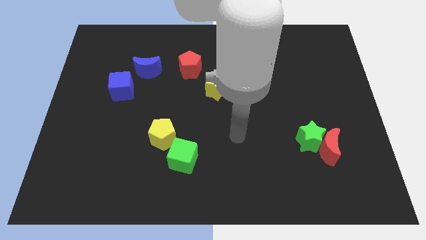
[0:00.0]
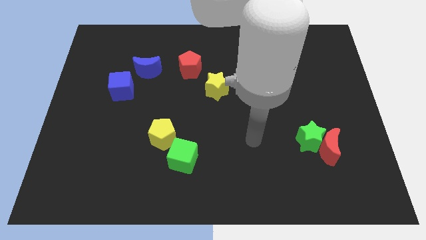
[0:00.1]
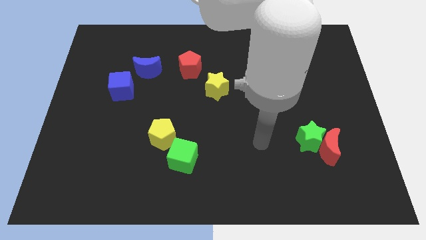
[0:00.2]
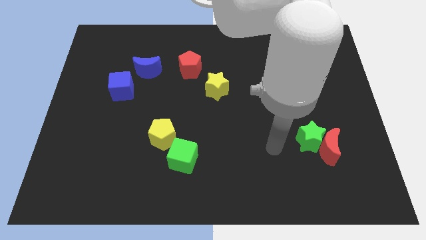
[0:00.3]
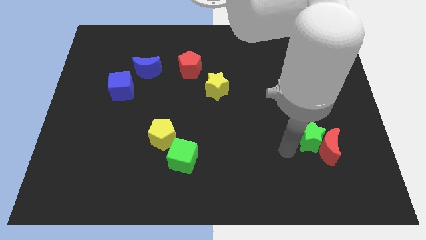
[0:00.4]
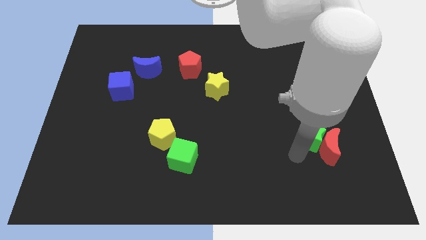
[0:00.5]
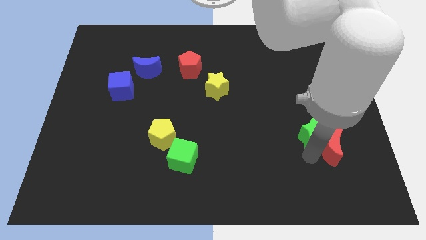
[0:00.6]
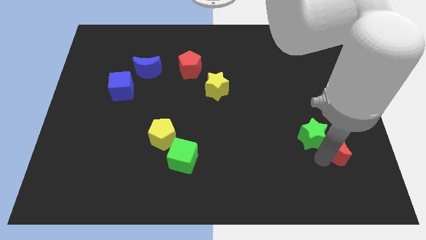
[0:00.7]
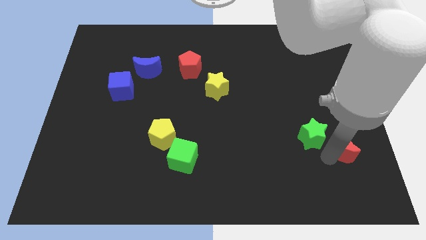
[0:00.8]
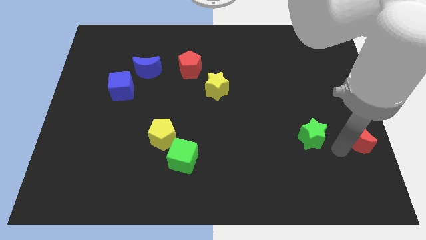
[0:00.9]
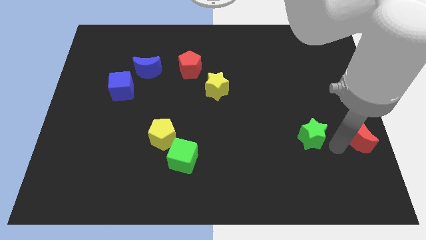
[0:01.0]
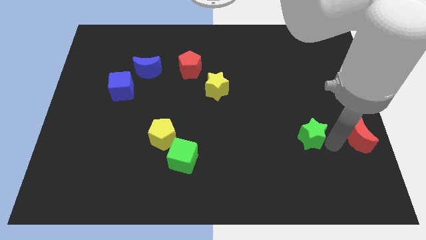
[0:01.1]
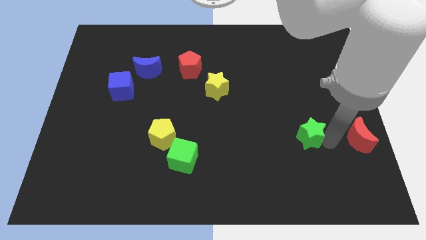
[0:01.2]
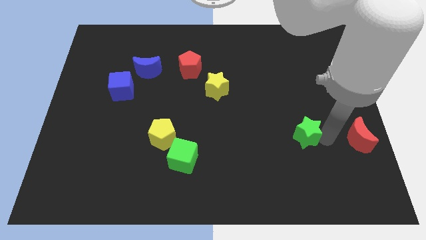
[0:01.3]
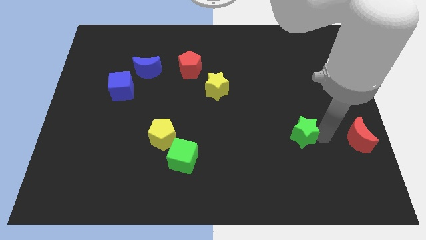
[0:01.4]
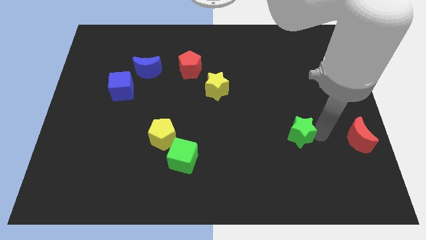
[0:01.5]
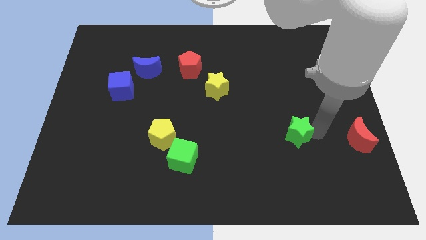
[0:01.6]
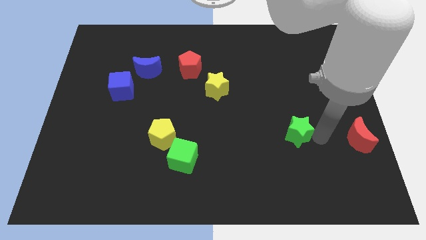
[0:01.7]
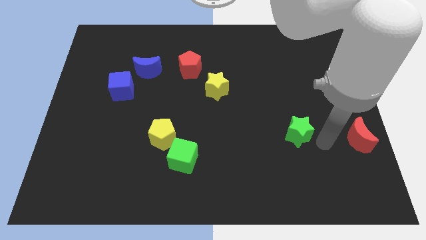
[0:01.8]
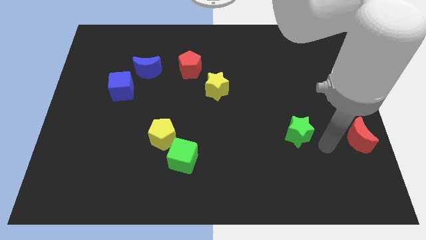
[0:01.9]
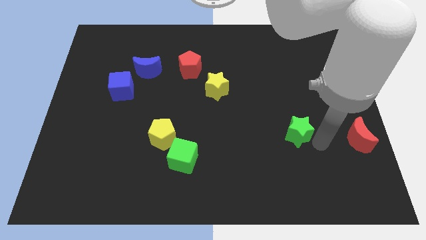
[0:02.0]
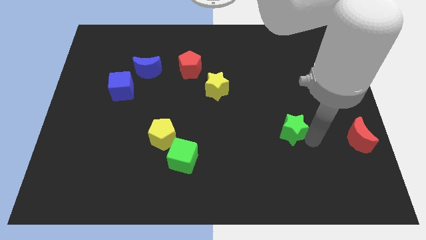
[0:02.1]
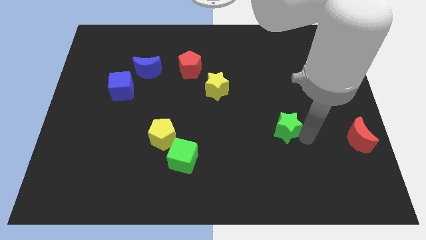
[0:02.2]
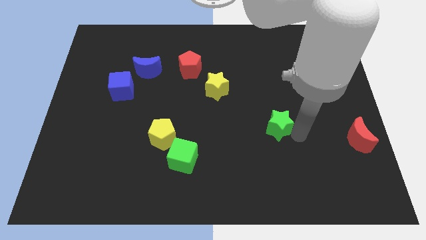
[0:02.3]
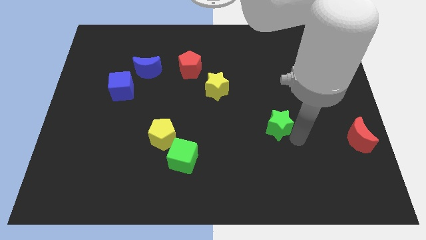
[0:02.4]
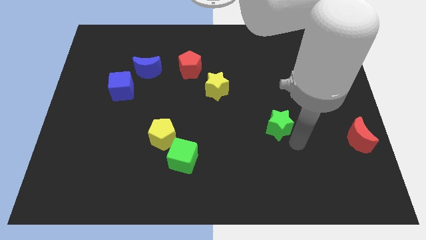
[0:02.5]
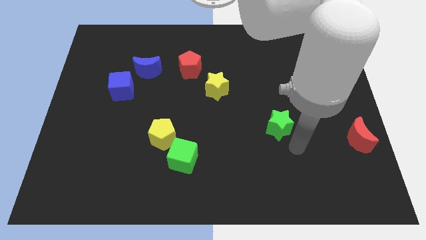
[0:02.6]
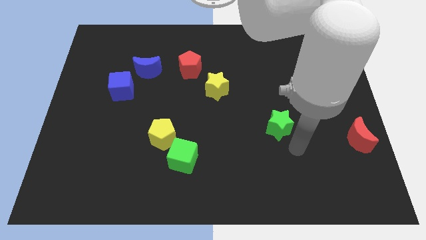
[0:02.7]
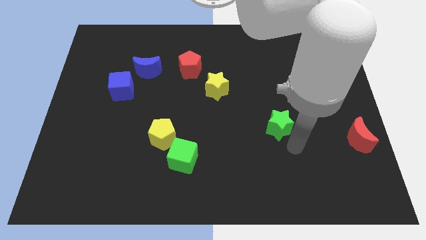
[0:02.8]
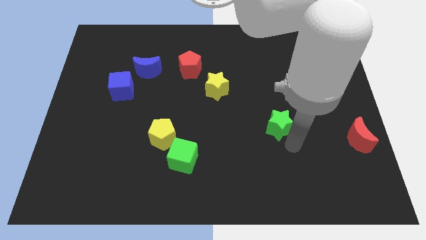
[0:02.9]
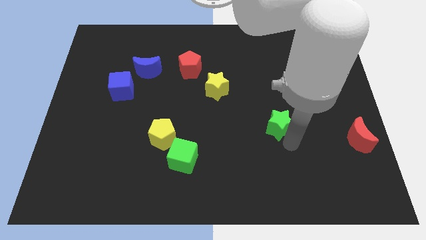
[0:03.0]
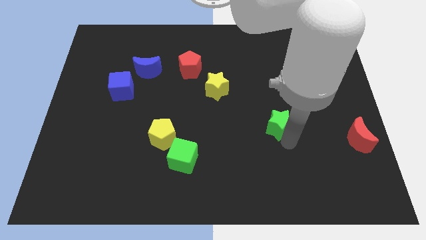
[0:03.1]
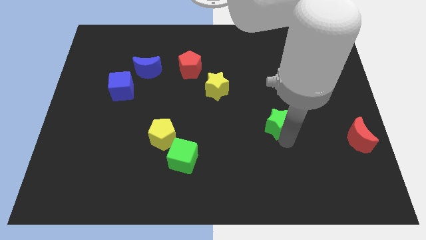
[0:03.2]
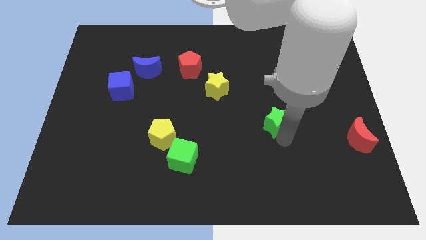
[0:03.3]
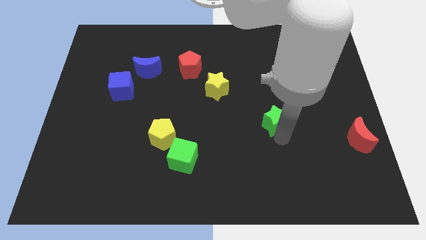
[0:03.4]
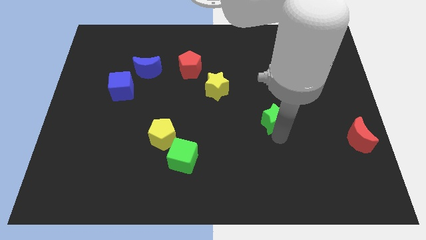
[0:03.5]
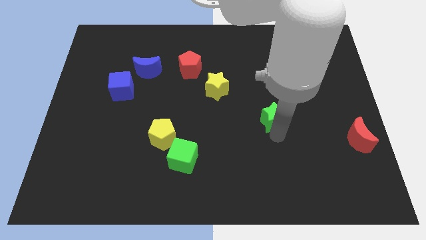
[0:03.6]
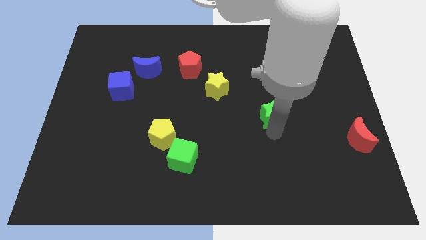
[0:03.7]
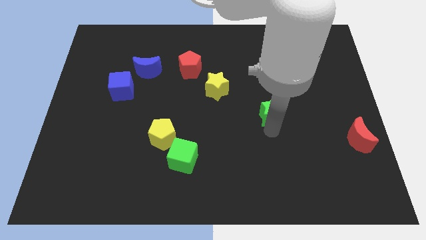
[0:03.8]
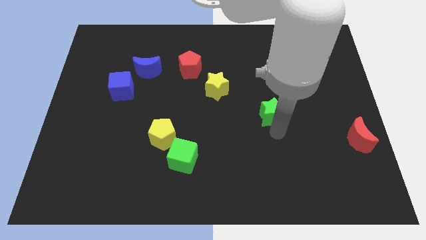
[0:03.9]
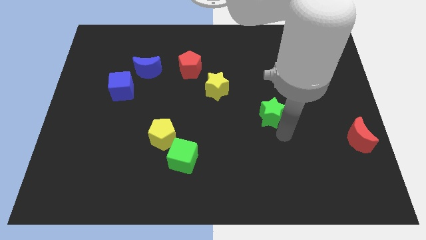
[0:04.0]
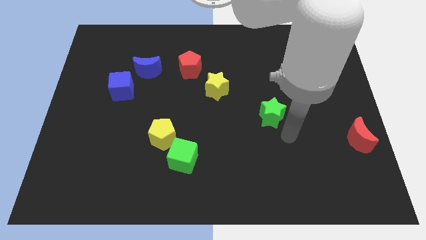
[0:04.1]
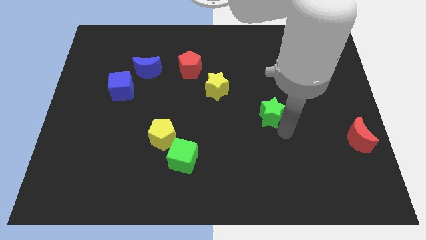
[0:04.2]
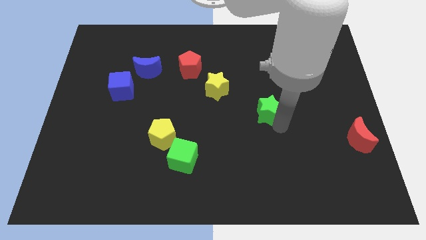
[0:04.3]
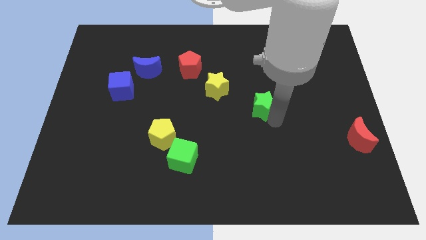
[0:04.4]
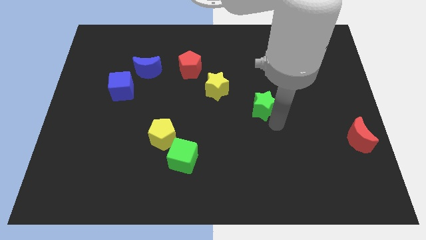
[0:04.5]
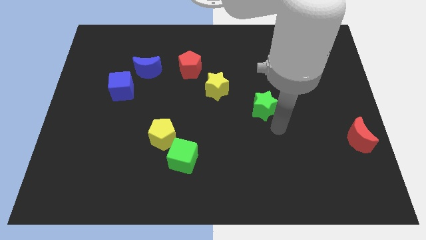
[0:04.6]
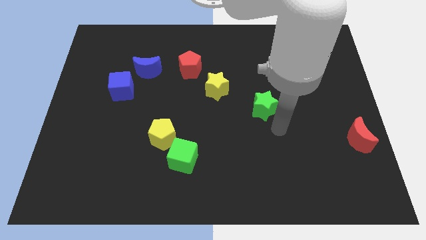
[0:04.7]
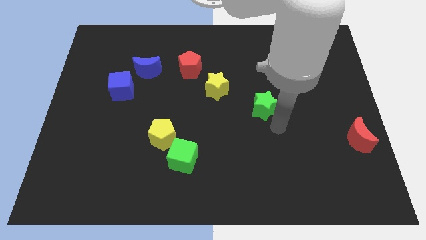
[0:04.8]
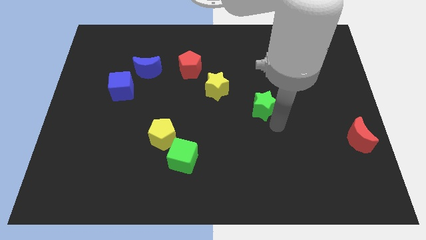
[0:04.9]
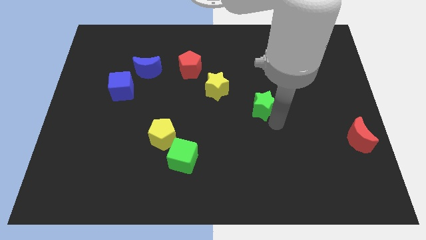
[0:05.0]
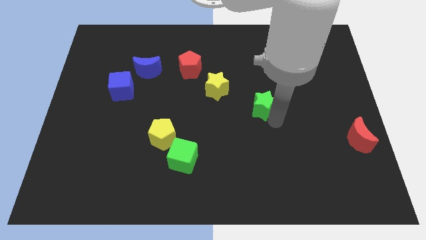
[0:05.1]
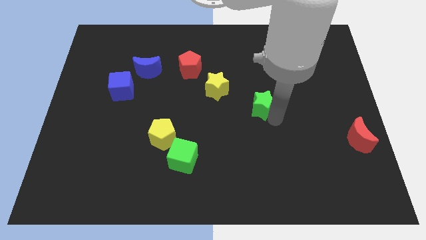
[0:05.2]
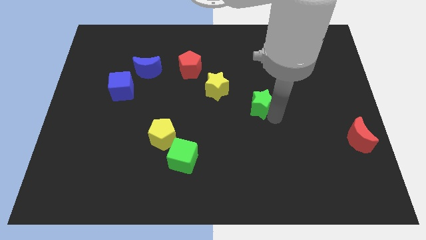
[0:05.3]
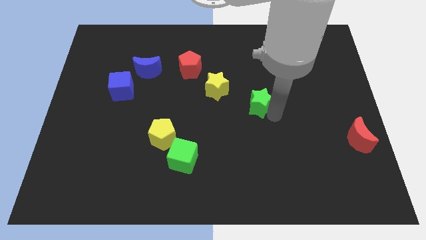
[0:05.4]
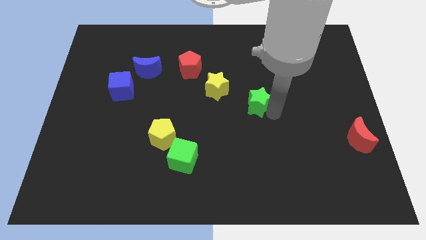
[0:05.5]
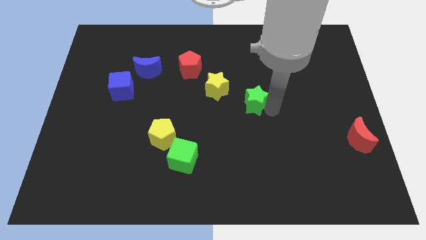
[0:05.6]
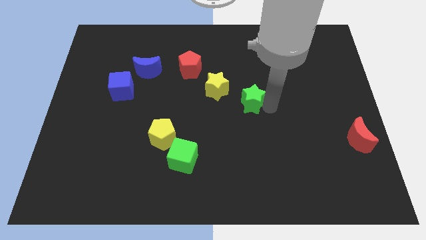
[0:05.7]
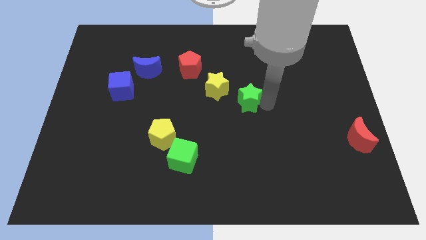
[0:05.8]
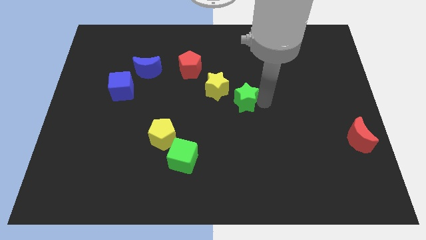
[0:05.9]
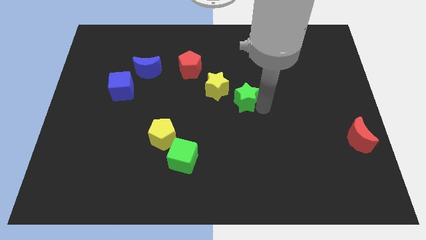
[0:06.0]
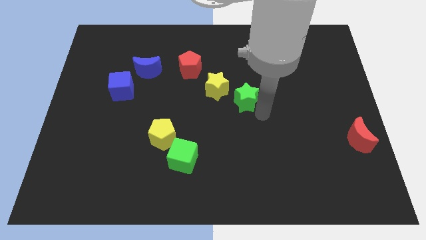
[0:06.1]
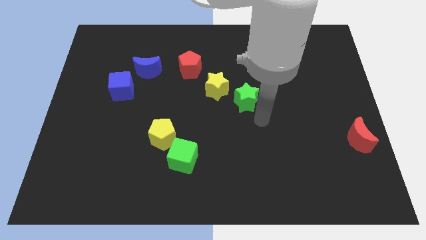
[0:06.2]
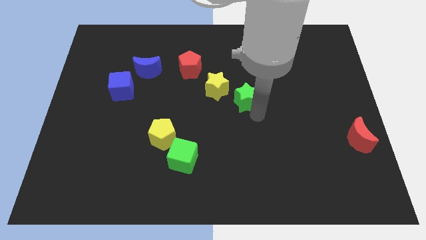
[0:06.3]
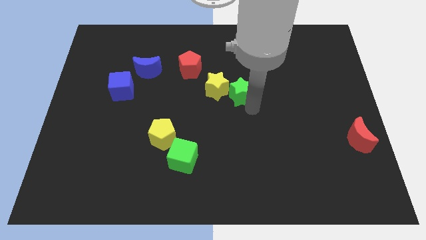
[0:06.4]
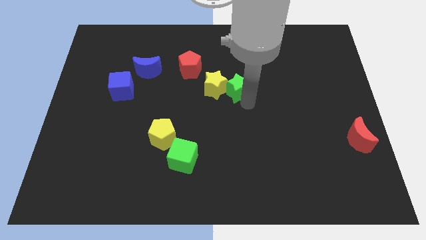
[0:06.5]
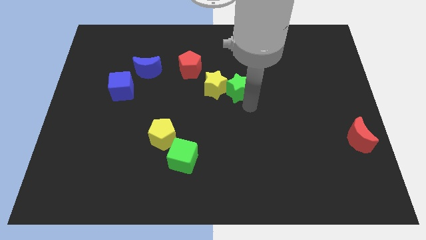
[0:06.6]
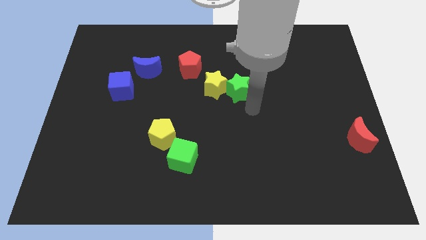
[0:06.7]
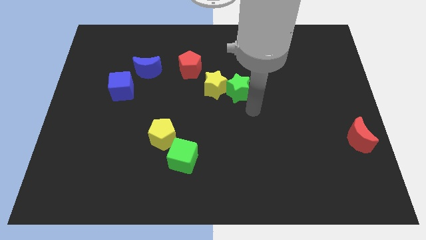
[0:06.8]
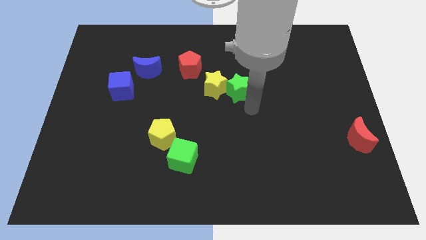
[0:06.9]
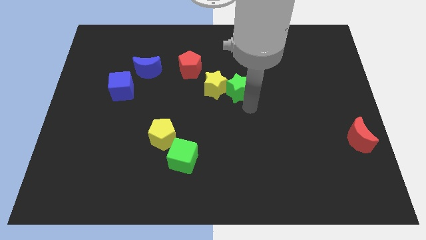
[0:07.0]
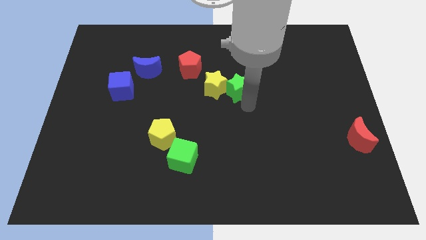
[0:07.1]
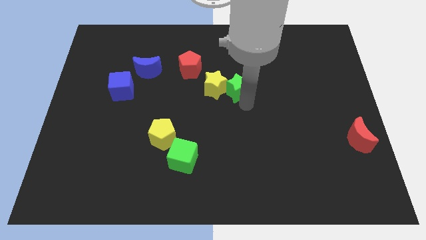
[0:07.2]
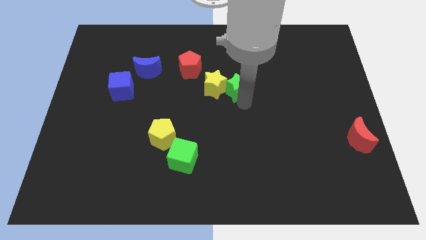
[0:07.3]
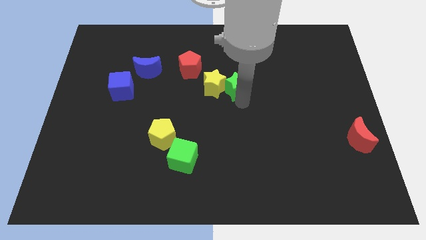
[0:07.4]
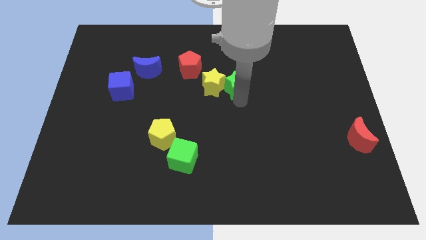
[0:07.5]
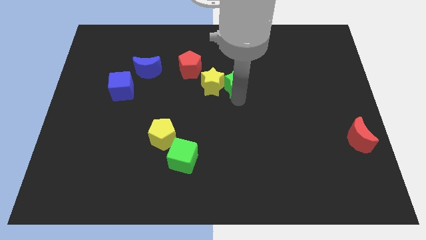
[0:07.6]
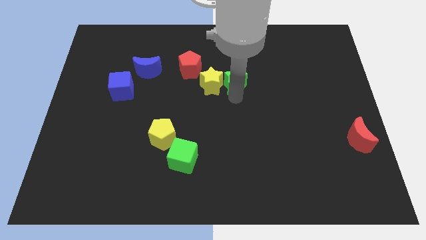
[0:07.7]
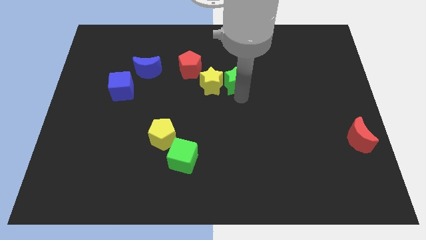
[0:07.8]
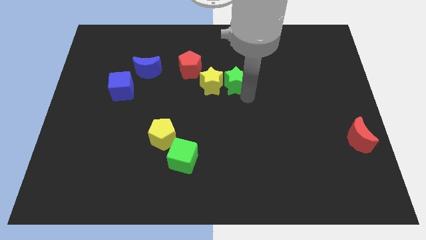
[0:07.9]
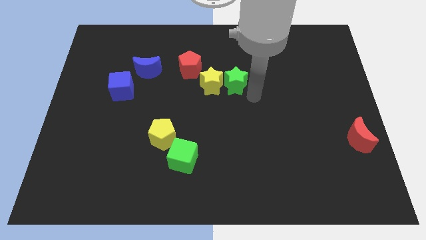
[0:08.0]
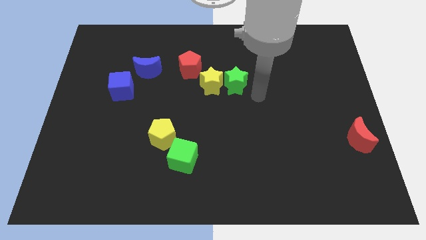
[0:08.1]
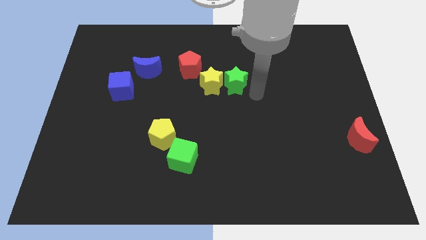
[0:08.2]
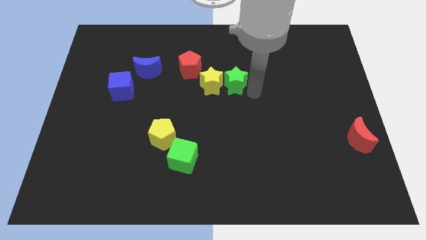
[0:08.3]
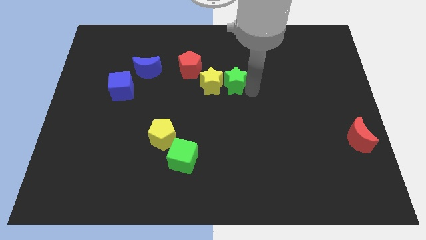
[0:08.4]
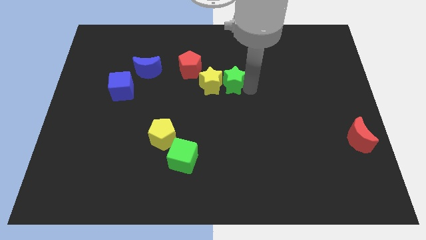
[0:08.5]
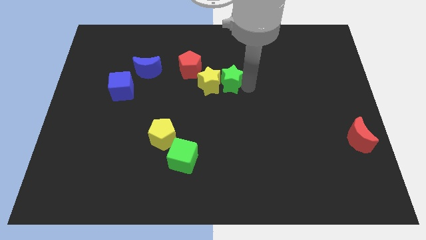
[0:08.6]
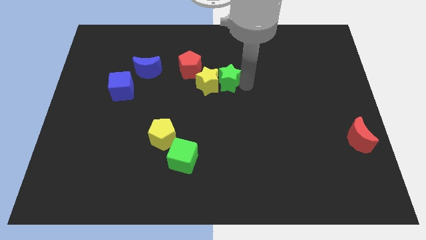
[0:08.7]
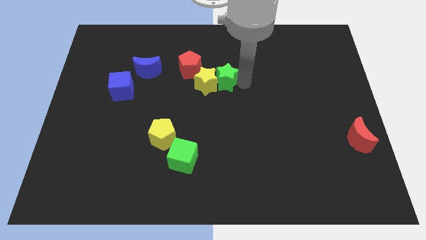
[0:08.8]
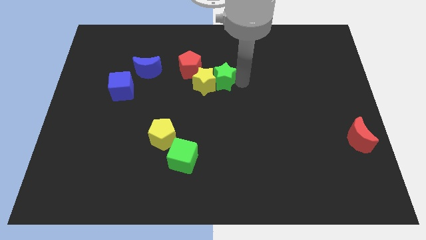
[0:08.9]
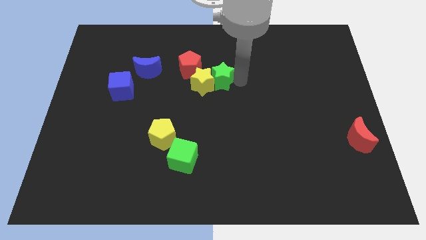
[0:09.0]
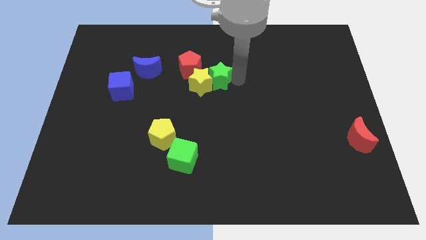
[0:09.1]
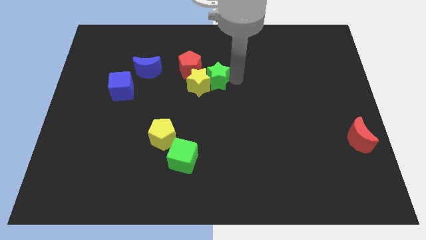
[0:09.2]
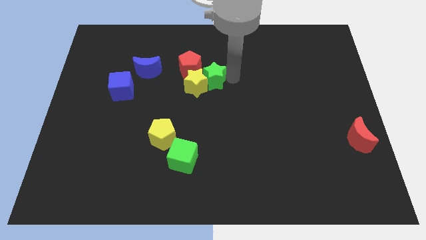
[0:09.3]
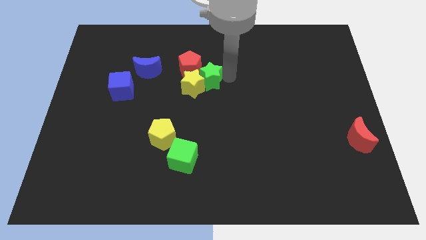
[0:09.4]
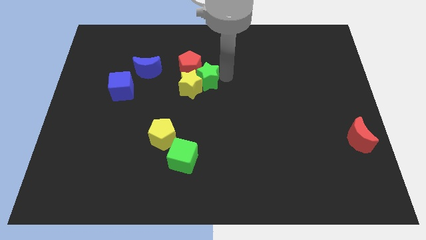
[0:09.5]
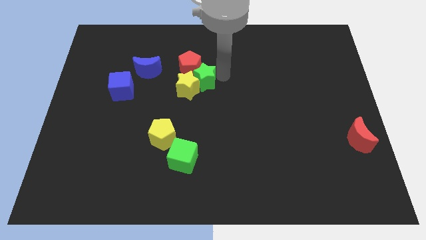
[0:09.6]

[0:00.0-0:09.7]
slide the green star close to the red pentagon
